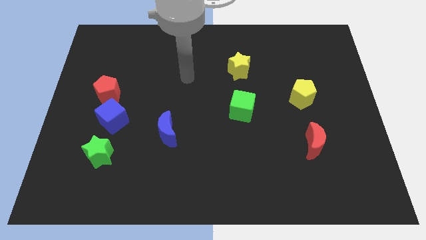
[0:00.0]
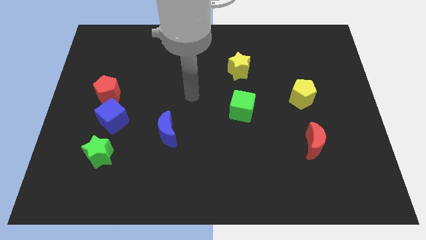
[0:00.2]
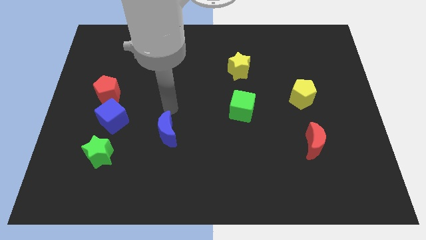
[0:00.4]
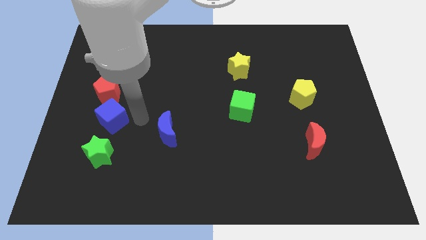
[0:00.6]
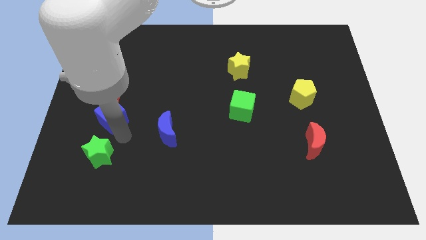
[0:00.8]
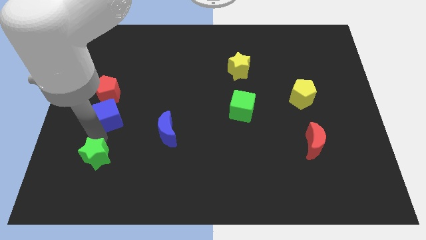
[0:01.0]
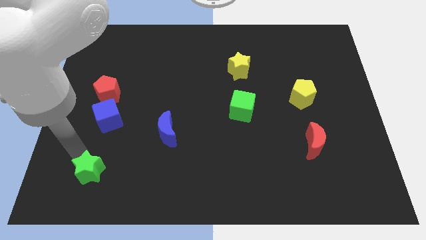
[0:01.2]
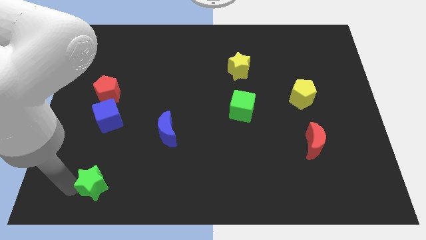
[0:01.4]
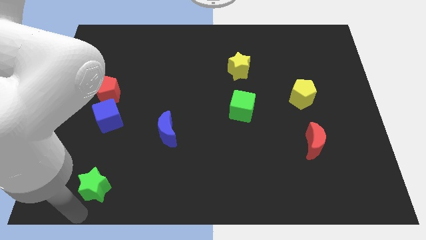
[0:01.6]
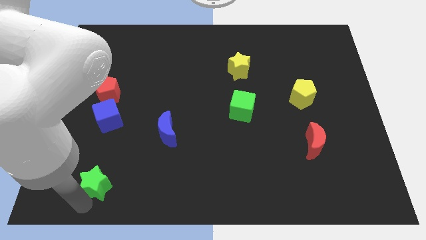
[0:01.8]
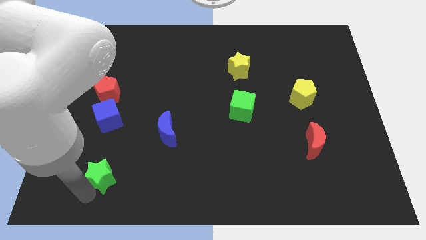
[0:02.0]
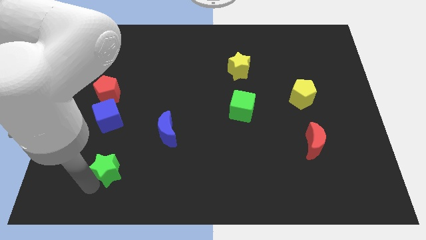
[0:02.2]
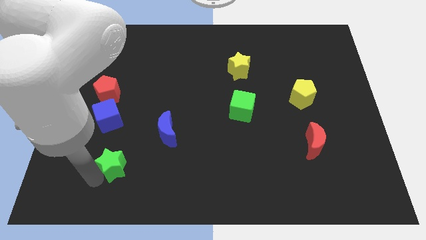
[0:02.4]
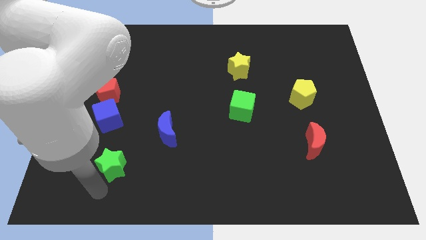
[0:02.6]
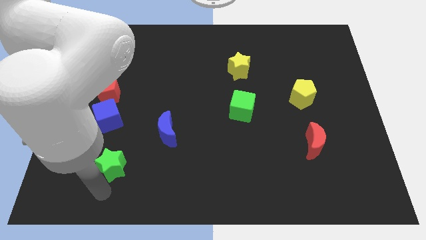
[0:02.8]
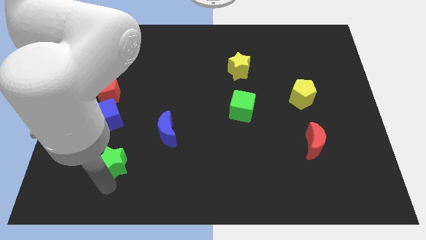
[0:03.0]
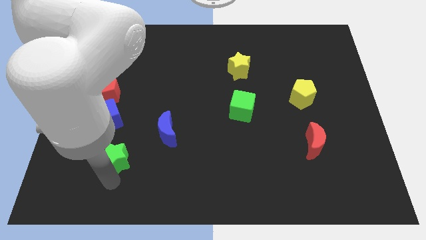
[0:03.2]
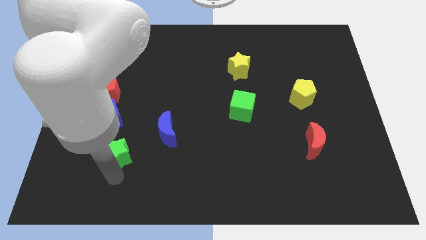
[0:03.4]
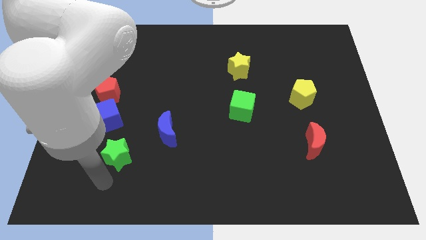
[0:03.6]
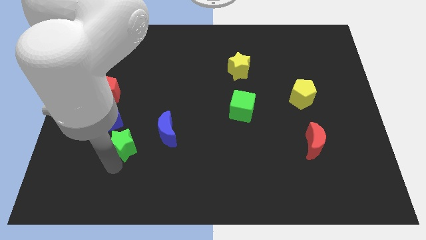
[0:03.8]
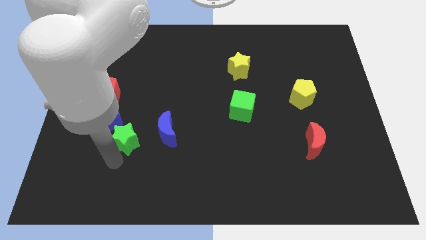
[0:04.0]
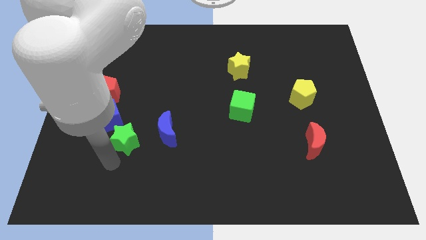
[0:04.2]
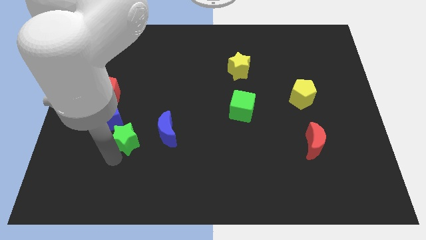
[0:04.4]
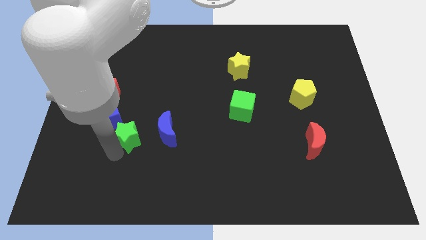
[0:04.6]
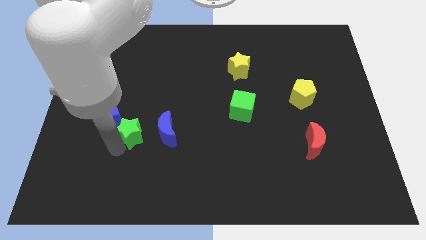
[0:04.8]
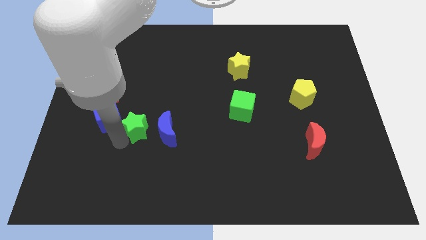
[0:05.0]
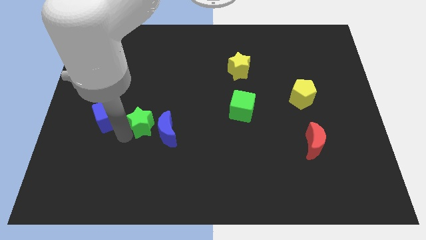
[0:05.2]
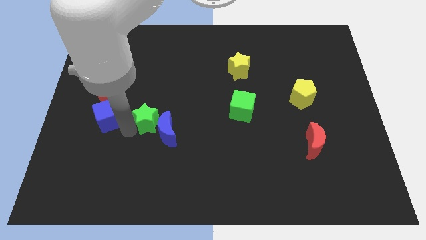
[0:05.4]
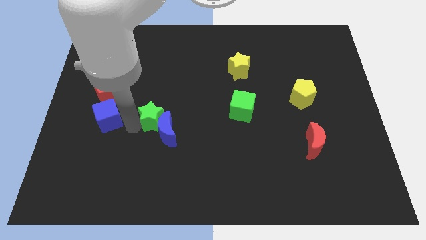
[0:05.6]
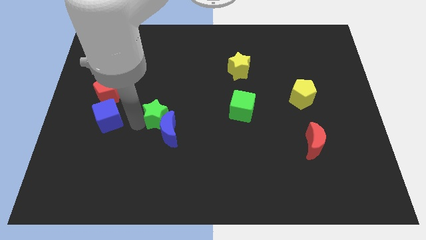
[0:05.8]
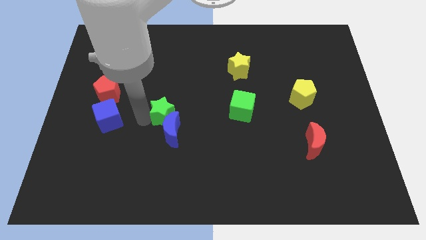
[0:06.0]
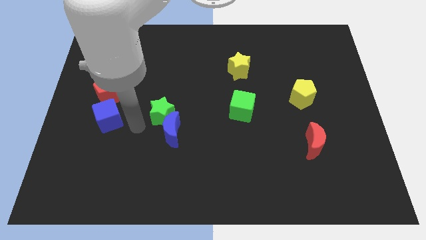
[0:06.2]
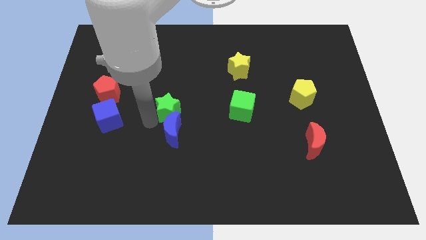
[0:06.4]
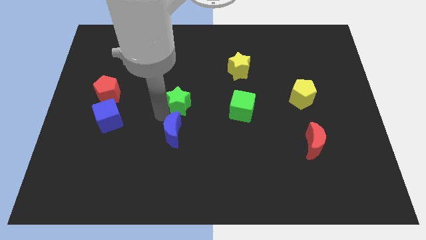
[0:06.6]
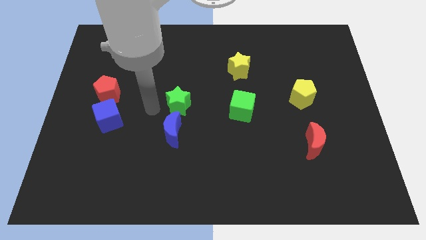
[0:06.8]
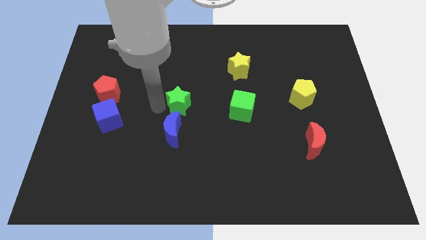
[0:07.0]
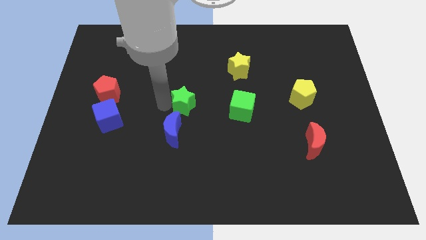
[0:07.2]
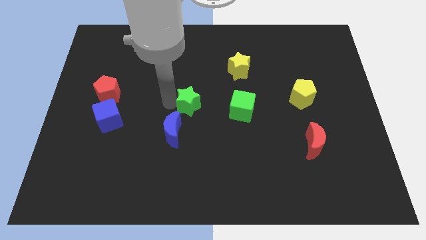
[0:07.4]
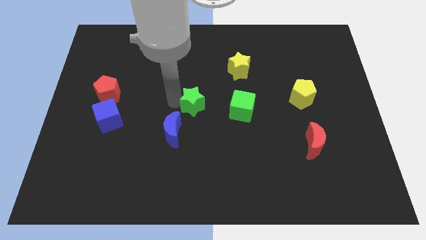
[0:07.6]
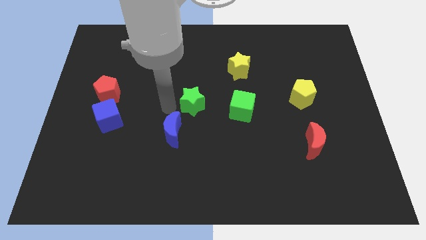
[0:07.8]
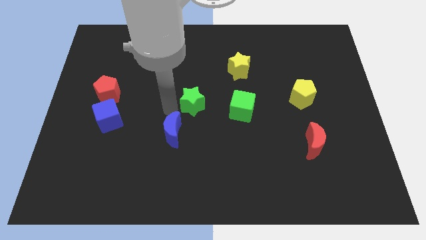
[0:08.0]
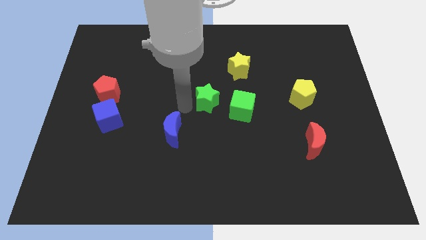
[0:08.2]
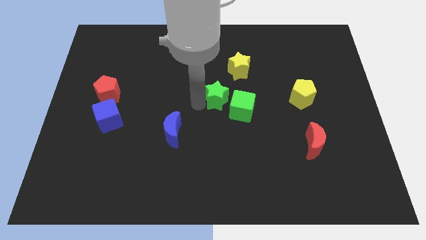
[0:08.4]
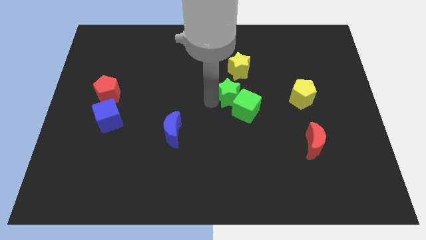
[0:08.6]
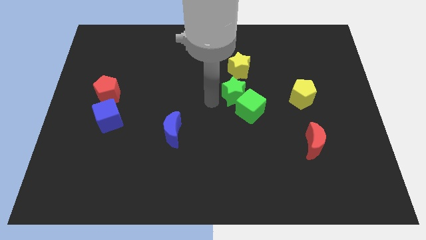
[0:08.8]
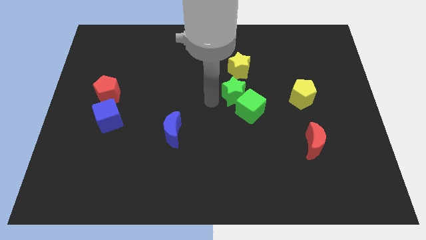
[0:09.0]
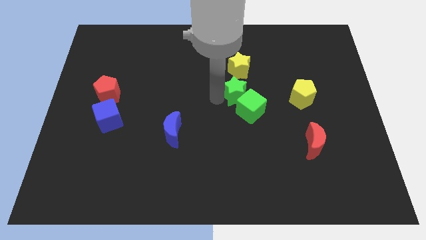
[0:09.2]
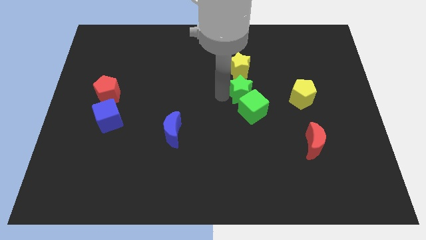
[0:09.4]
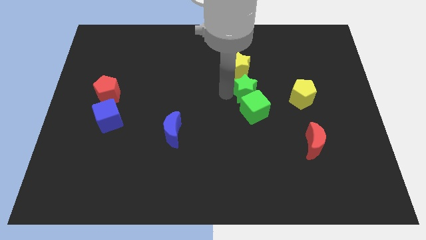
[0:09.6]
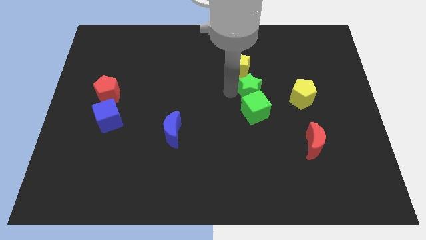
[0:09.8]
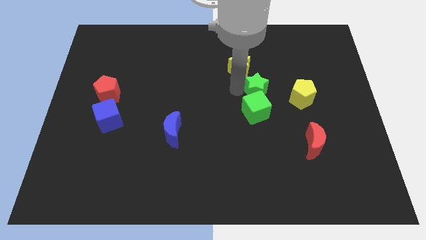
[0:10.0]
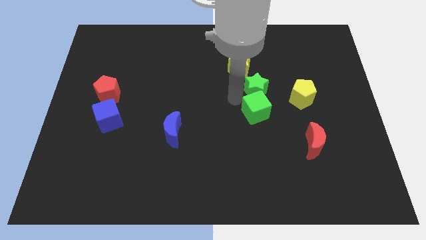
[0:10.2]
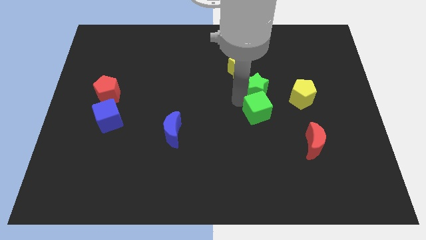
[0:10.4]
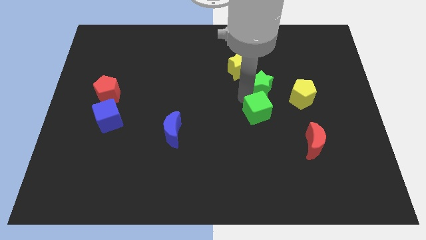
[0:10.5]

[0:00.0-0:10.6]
put the green star to the top left side of the yellow pentagon

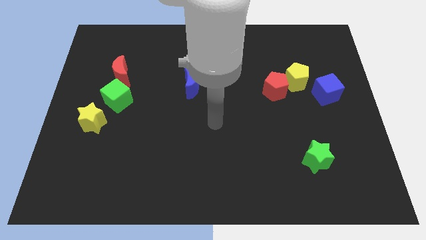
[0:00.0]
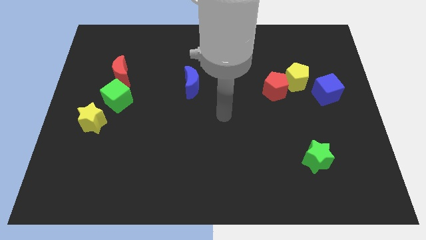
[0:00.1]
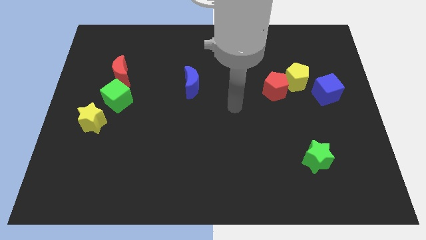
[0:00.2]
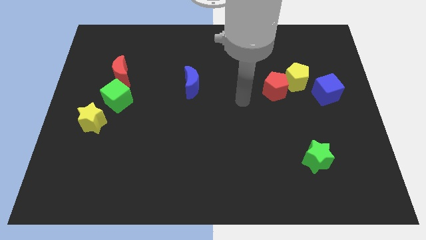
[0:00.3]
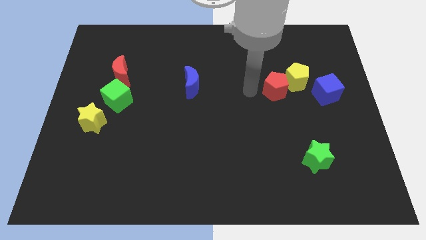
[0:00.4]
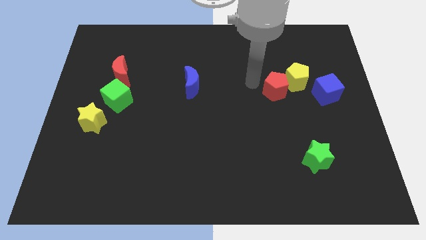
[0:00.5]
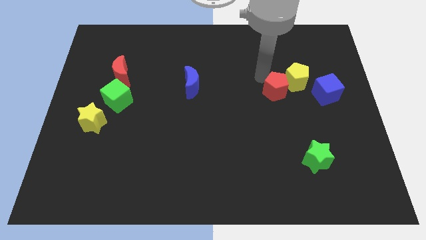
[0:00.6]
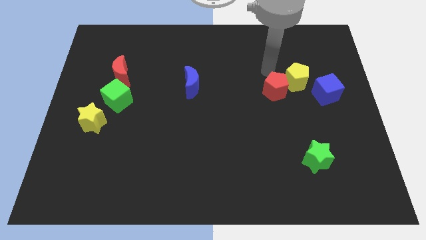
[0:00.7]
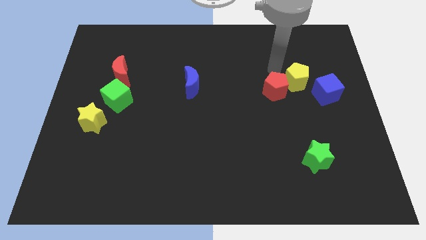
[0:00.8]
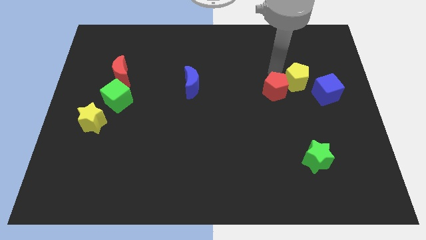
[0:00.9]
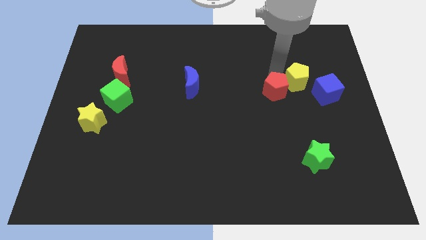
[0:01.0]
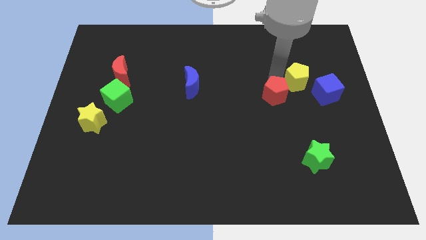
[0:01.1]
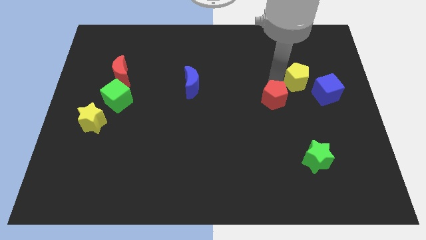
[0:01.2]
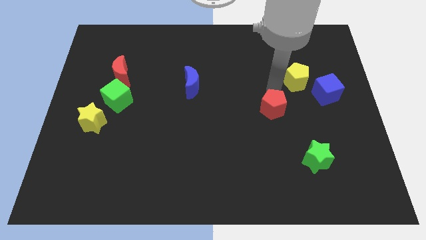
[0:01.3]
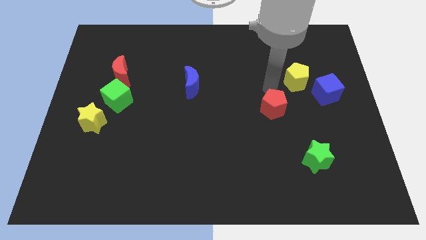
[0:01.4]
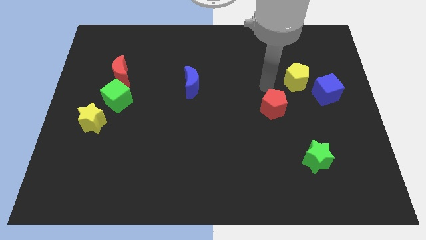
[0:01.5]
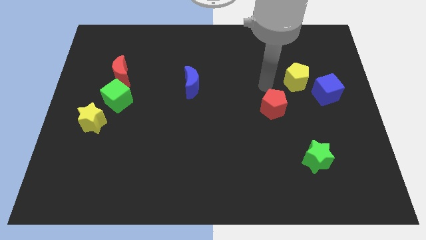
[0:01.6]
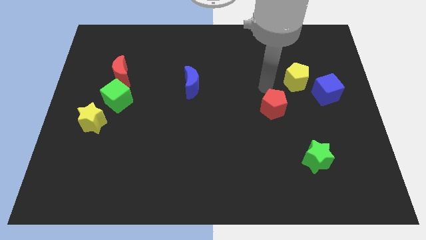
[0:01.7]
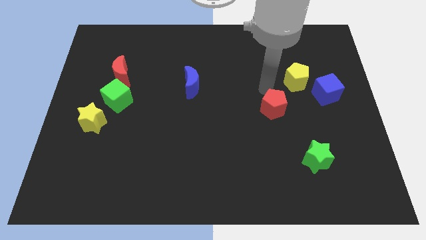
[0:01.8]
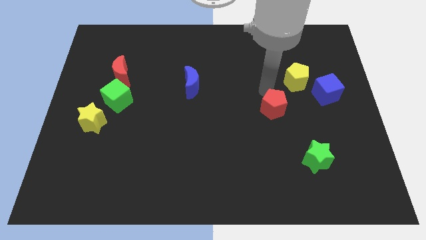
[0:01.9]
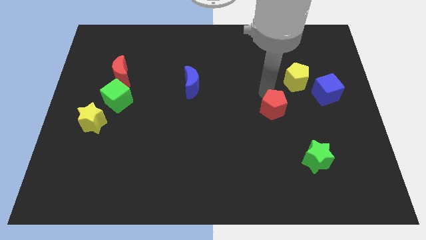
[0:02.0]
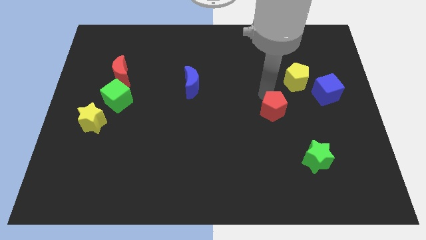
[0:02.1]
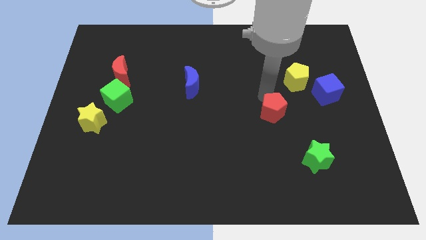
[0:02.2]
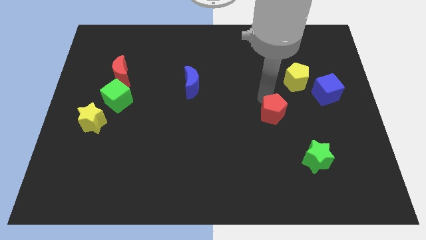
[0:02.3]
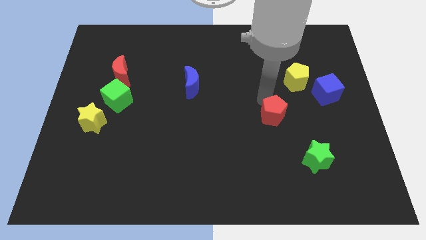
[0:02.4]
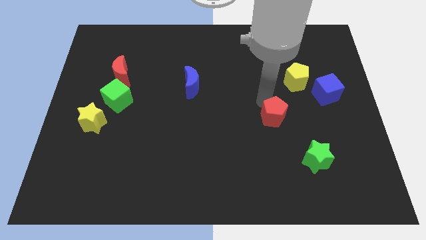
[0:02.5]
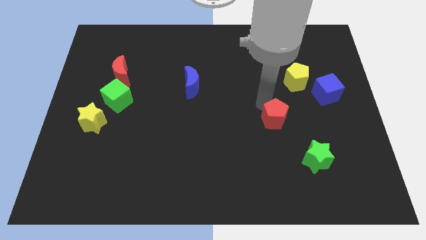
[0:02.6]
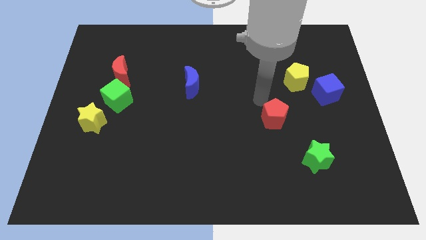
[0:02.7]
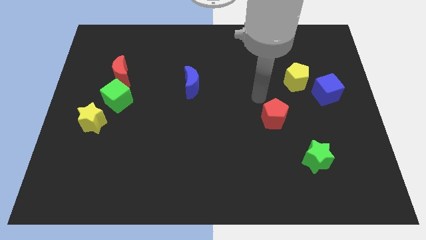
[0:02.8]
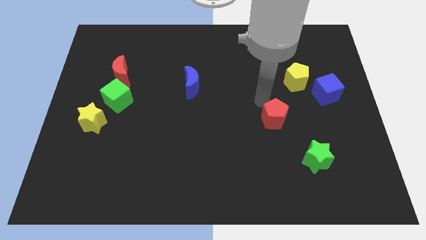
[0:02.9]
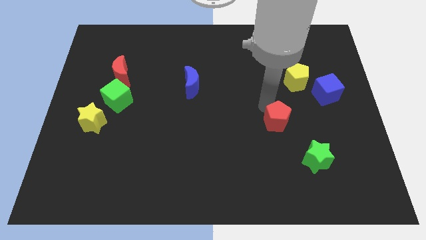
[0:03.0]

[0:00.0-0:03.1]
push the red pentagon to the top left side of the green star
